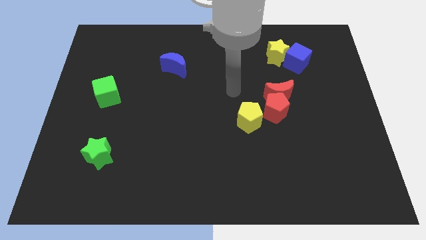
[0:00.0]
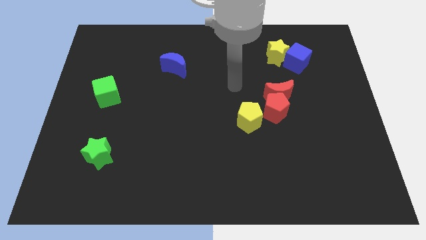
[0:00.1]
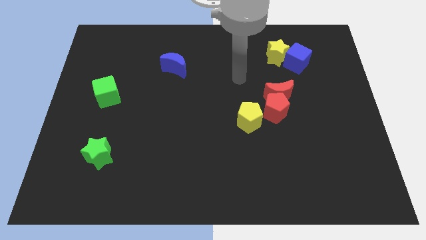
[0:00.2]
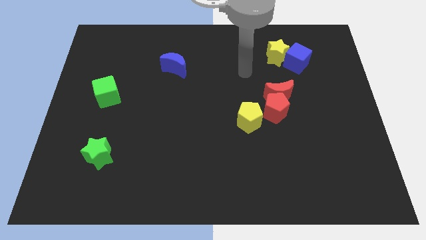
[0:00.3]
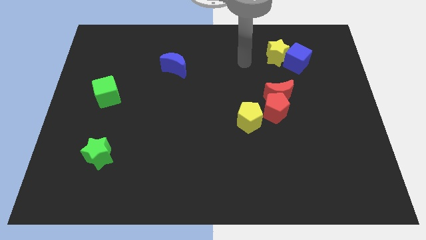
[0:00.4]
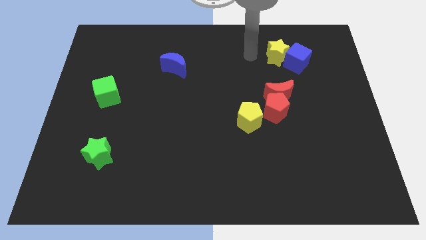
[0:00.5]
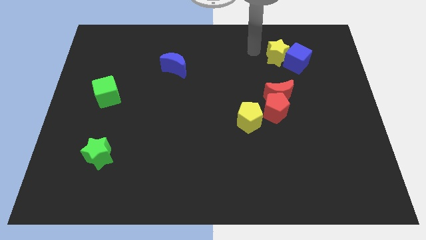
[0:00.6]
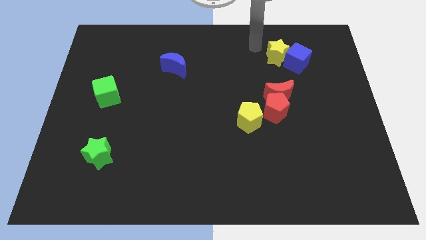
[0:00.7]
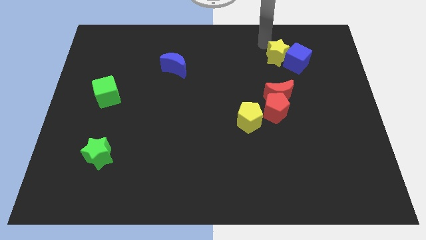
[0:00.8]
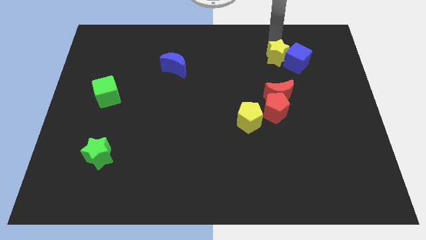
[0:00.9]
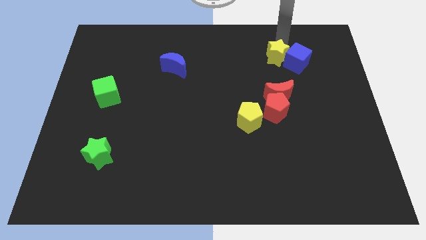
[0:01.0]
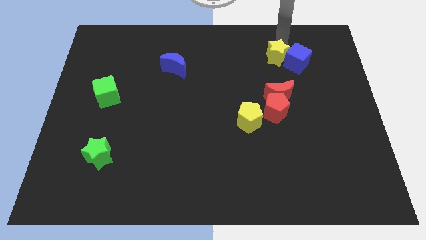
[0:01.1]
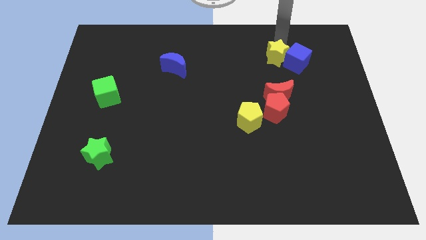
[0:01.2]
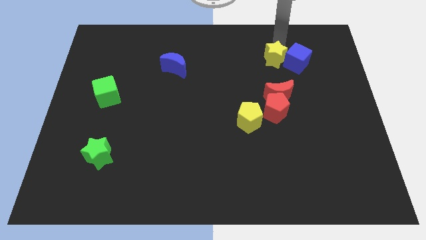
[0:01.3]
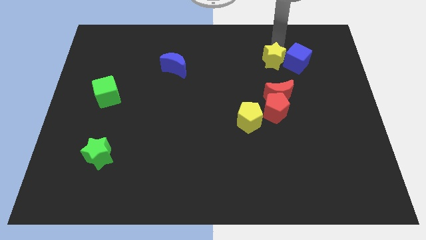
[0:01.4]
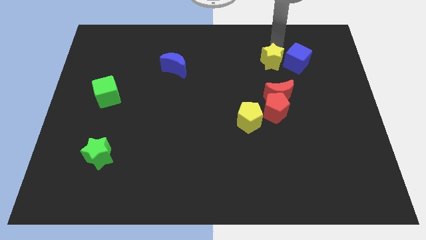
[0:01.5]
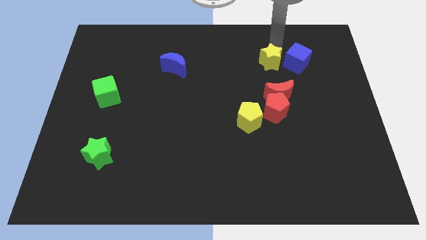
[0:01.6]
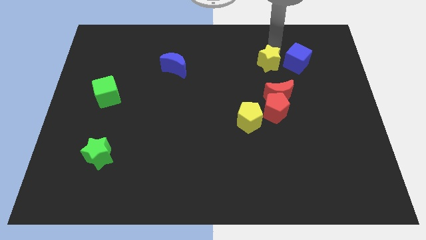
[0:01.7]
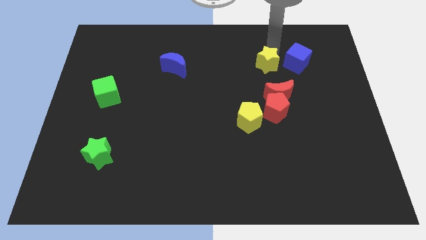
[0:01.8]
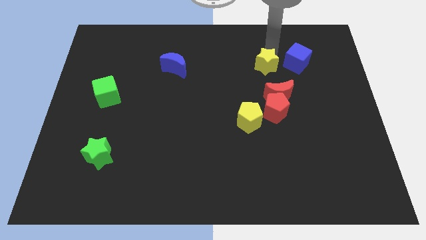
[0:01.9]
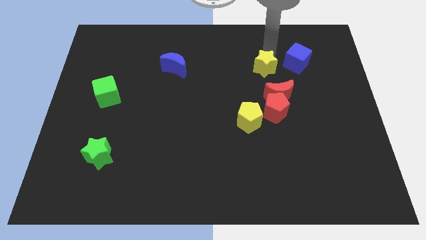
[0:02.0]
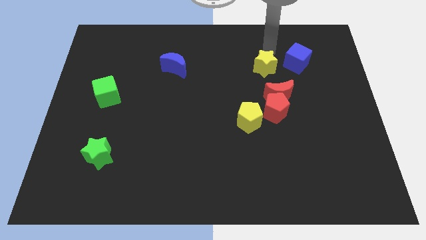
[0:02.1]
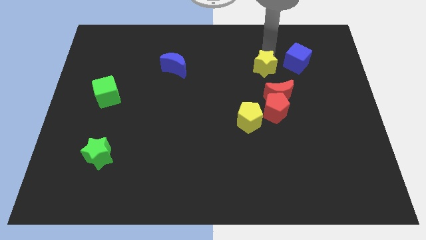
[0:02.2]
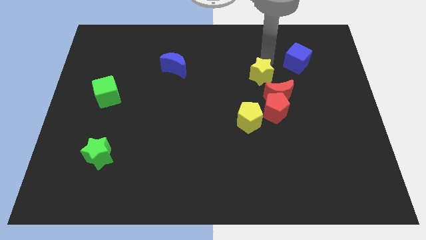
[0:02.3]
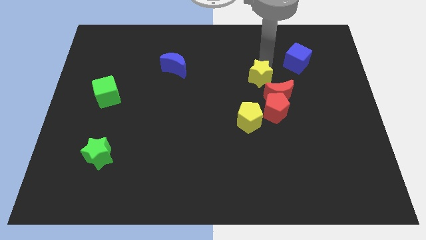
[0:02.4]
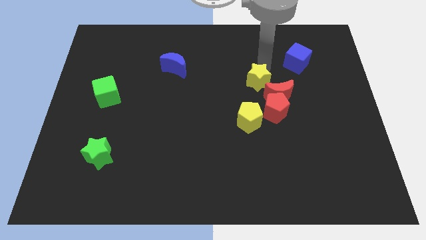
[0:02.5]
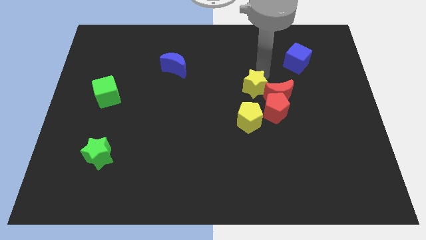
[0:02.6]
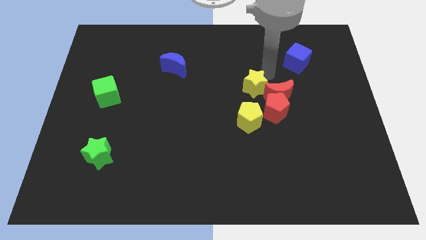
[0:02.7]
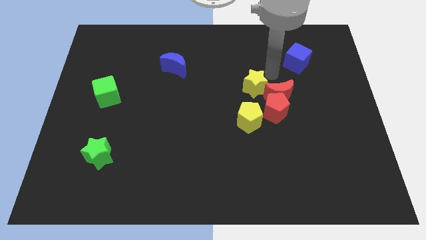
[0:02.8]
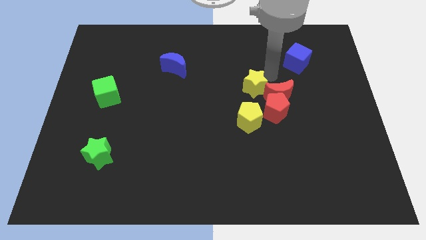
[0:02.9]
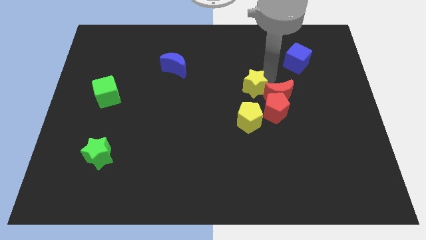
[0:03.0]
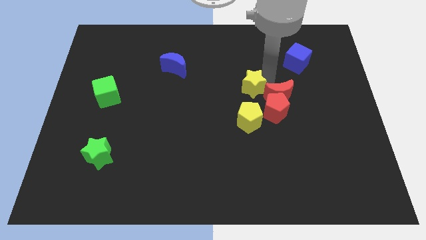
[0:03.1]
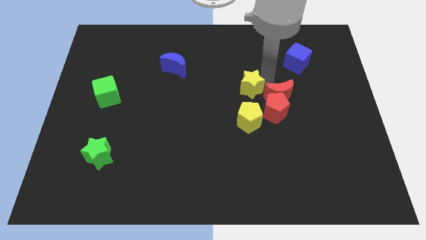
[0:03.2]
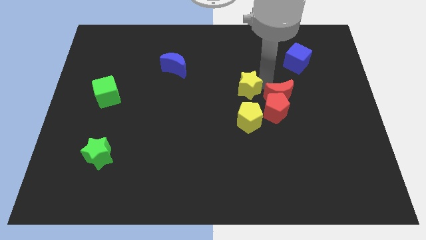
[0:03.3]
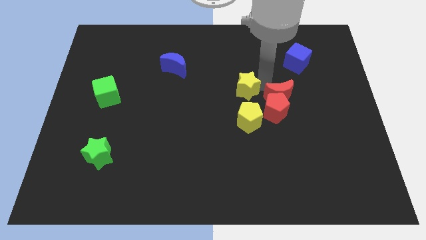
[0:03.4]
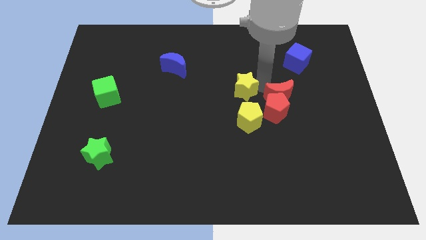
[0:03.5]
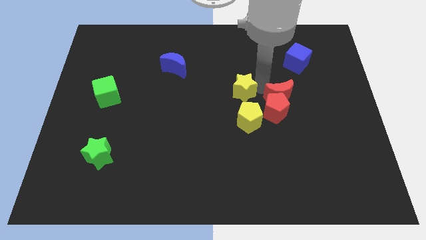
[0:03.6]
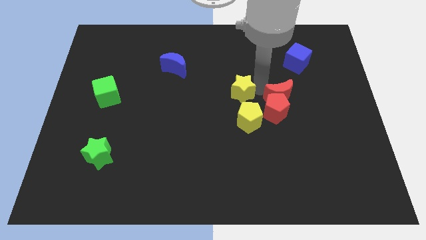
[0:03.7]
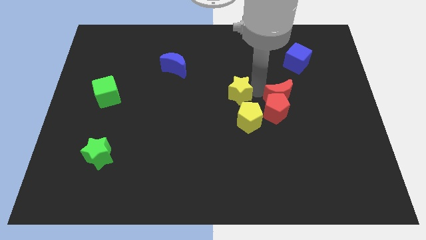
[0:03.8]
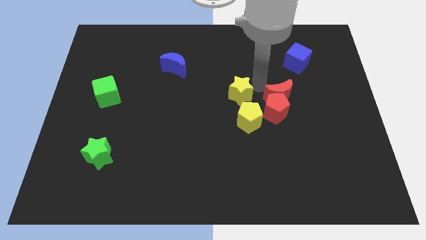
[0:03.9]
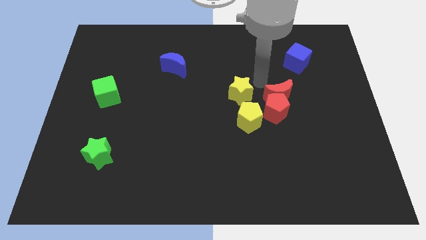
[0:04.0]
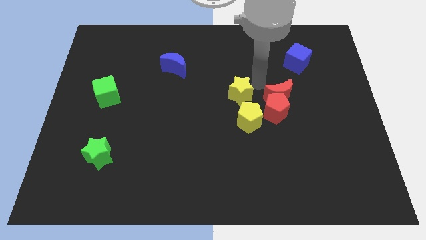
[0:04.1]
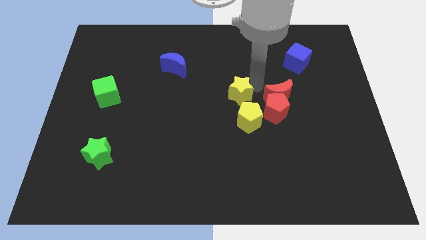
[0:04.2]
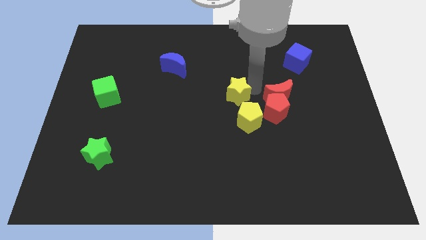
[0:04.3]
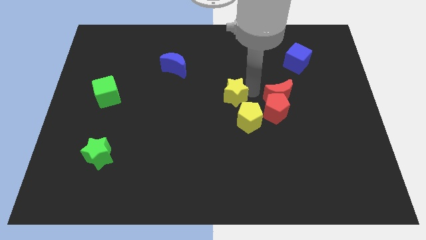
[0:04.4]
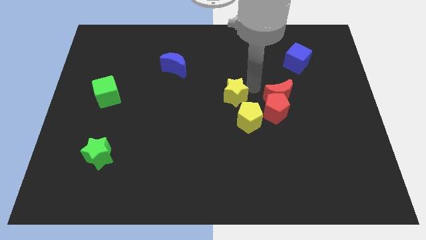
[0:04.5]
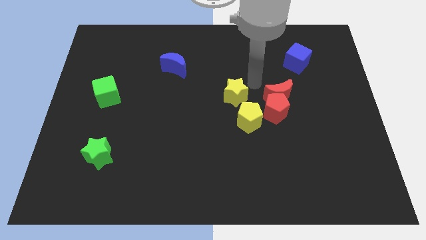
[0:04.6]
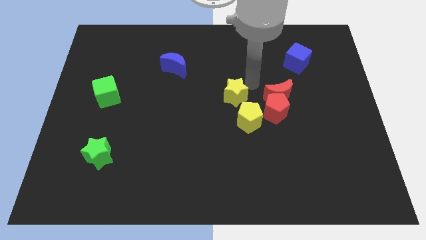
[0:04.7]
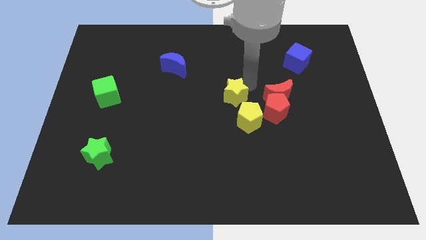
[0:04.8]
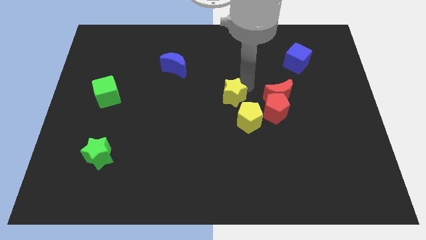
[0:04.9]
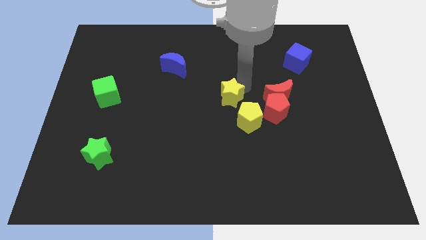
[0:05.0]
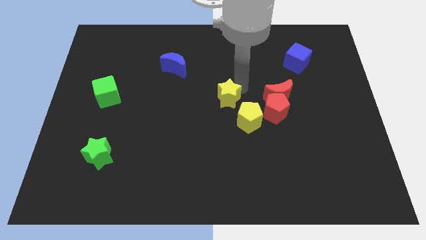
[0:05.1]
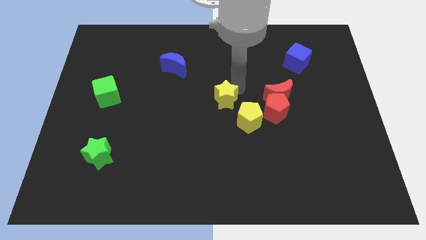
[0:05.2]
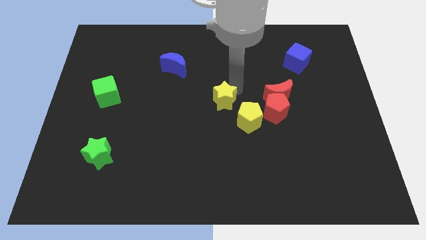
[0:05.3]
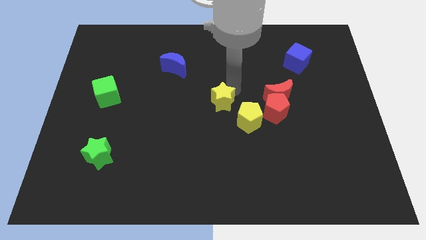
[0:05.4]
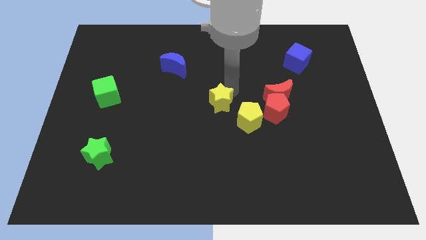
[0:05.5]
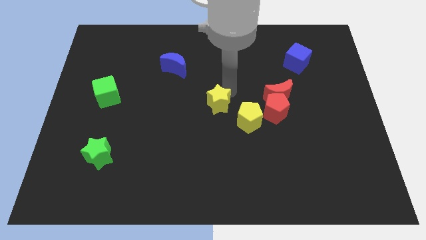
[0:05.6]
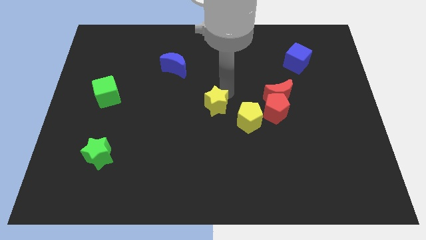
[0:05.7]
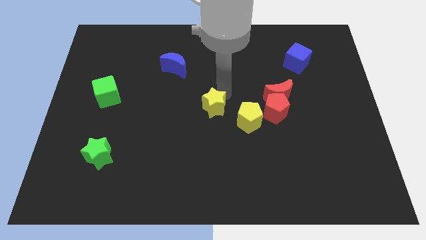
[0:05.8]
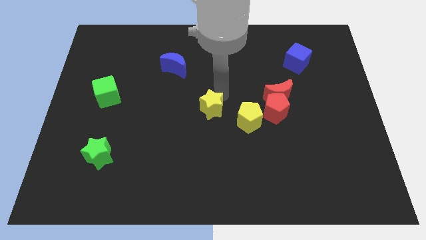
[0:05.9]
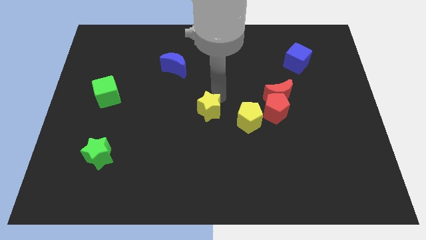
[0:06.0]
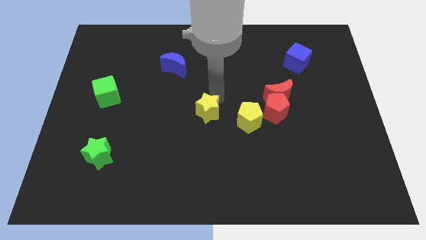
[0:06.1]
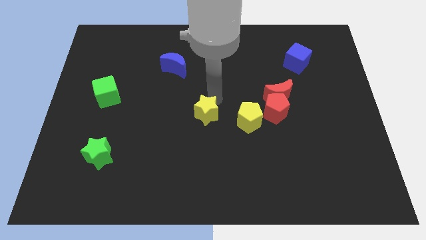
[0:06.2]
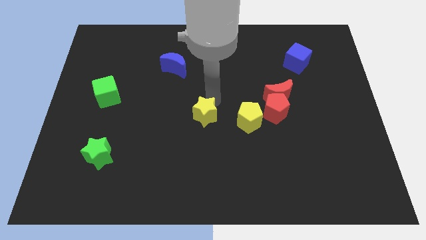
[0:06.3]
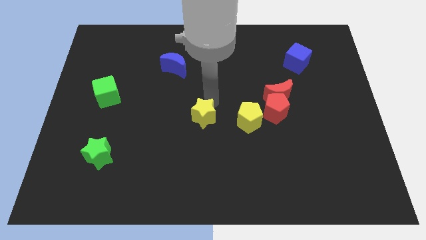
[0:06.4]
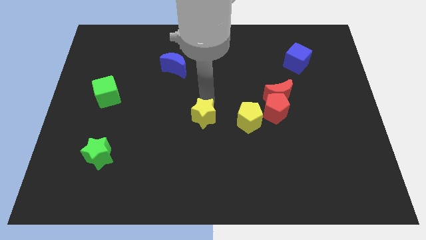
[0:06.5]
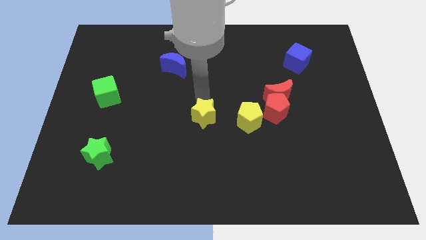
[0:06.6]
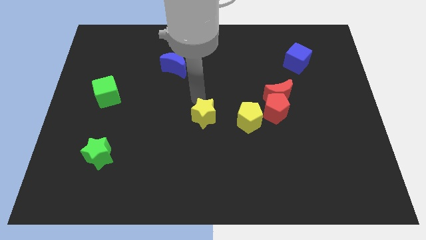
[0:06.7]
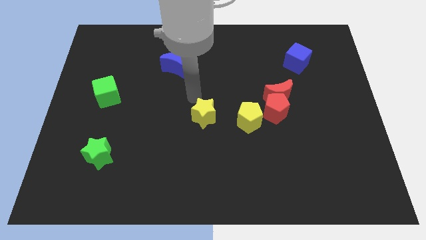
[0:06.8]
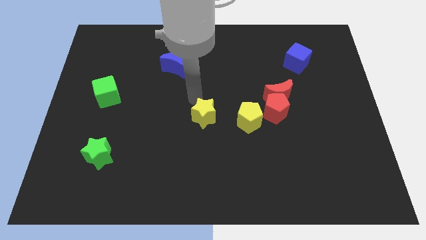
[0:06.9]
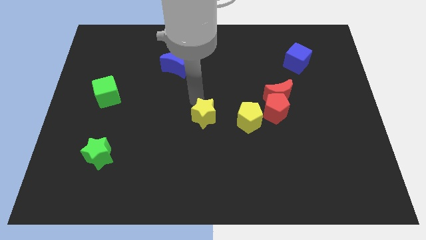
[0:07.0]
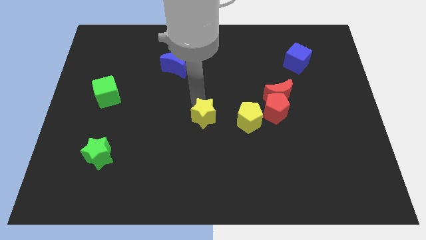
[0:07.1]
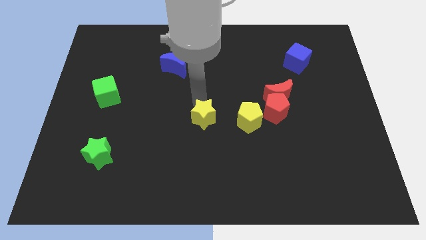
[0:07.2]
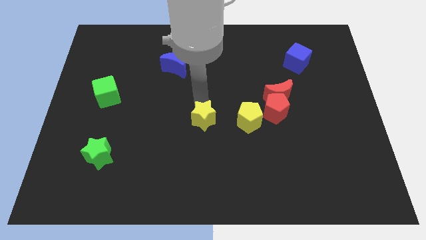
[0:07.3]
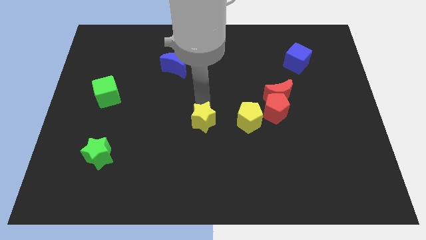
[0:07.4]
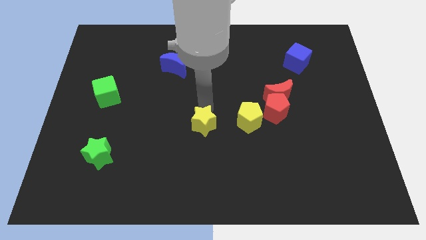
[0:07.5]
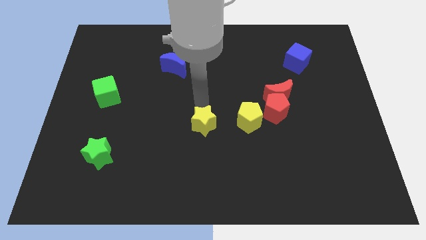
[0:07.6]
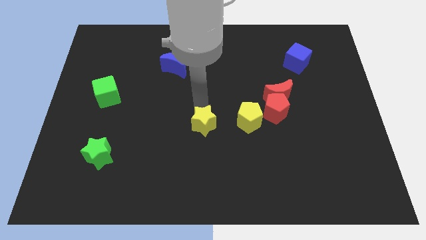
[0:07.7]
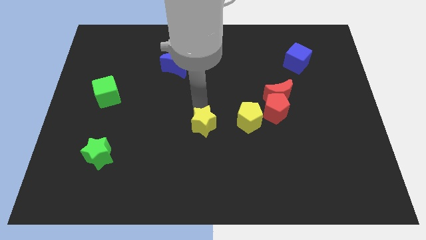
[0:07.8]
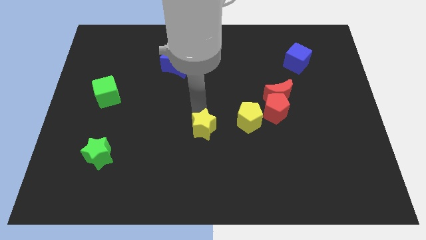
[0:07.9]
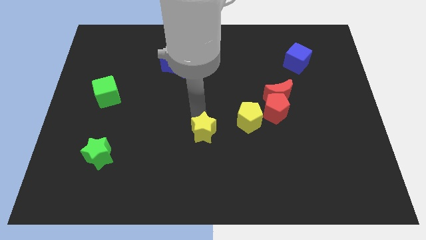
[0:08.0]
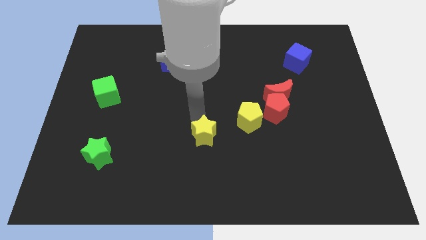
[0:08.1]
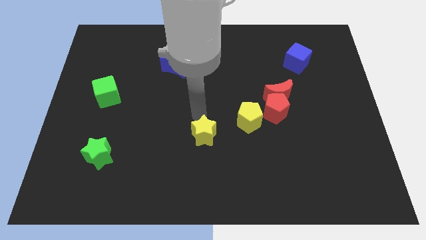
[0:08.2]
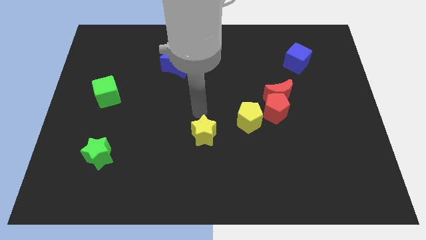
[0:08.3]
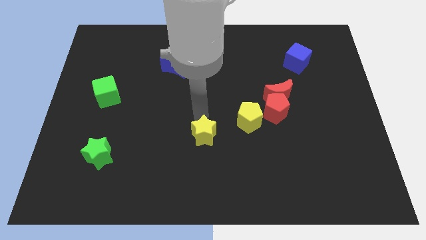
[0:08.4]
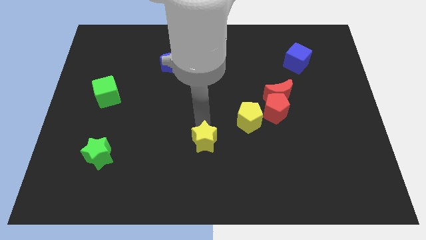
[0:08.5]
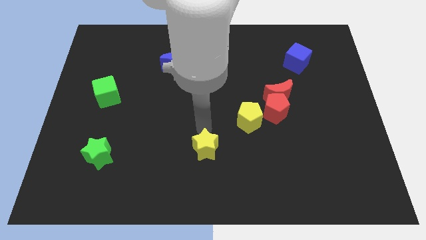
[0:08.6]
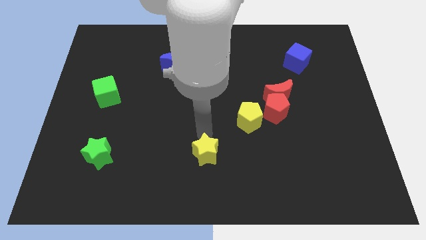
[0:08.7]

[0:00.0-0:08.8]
move the yellow star to the bottom
